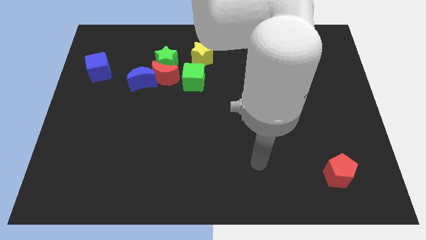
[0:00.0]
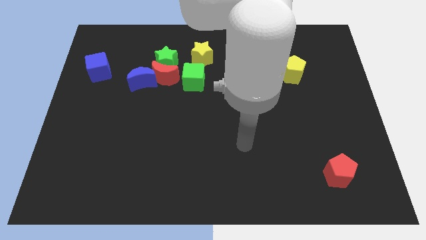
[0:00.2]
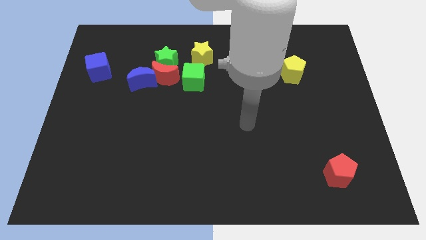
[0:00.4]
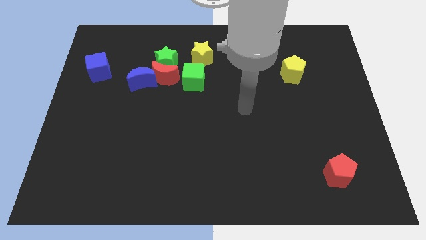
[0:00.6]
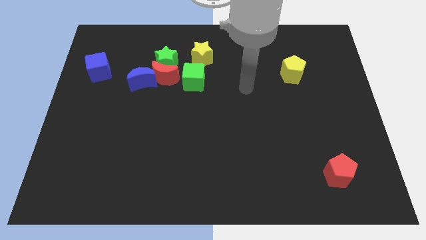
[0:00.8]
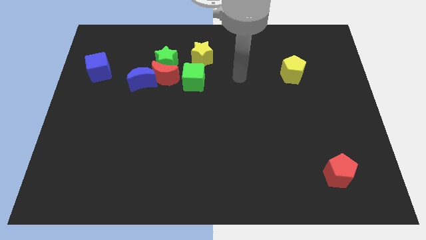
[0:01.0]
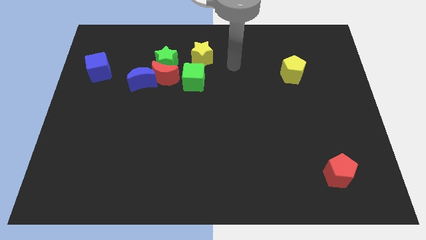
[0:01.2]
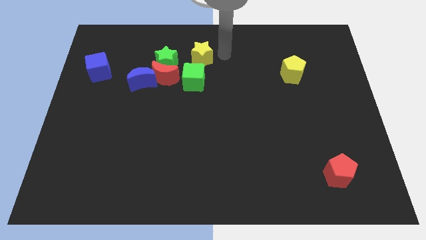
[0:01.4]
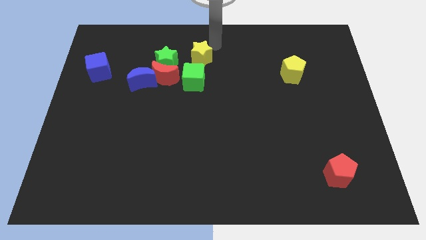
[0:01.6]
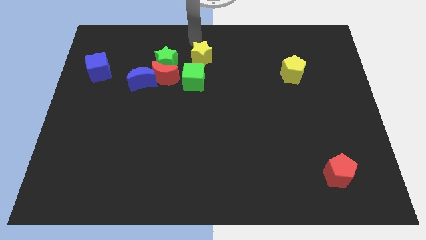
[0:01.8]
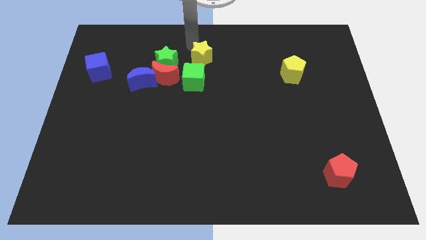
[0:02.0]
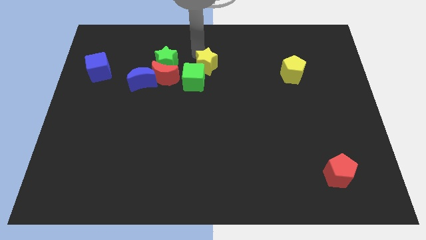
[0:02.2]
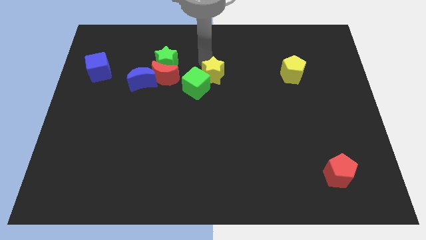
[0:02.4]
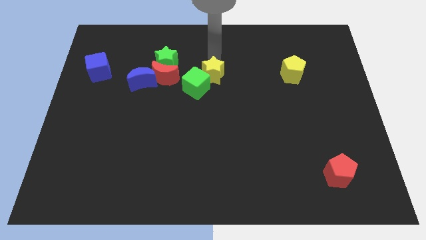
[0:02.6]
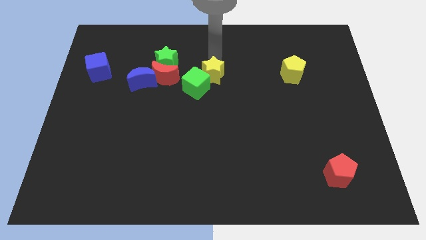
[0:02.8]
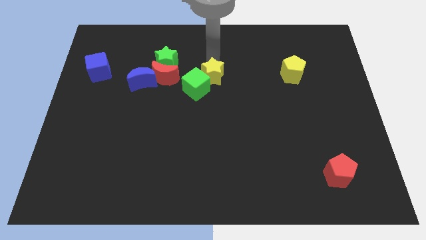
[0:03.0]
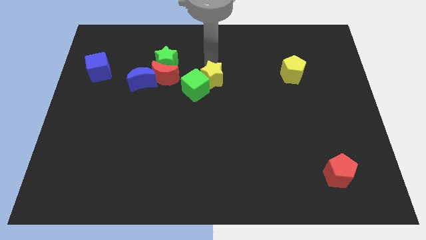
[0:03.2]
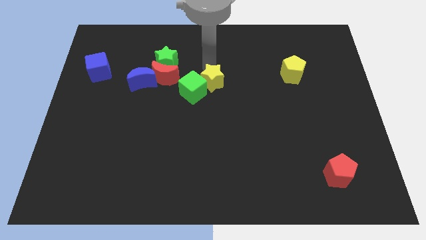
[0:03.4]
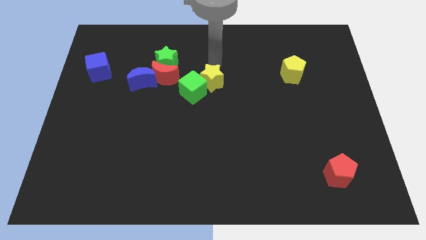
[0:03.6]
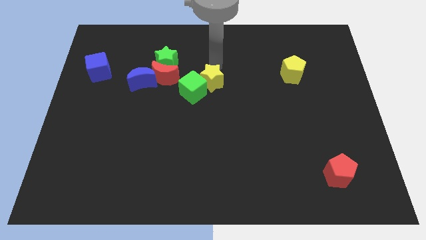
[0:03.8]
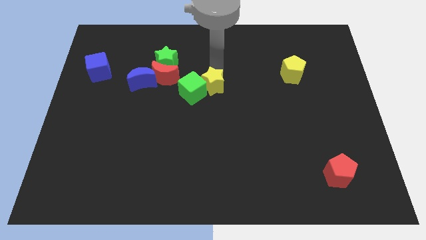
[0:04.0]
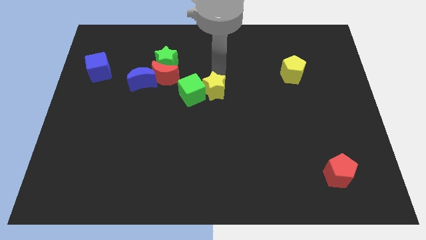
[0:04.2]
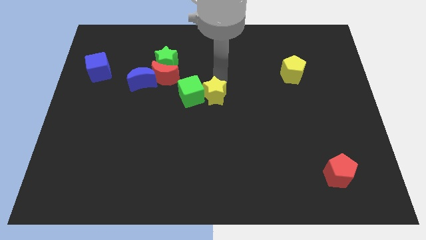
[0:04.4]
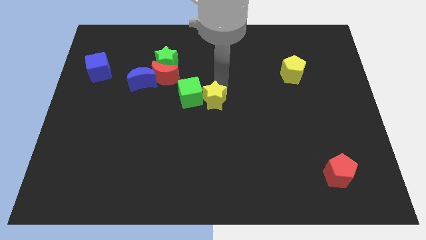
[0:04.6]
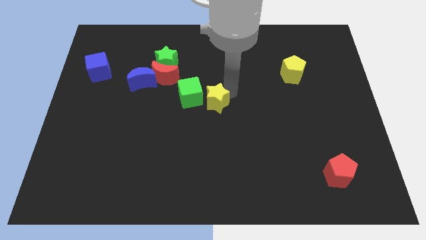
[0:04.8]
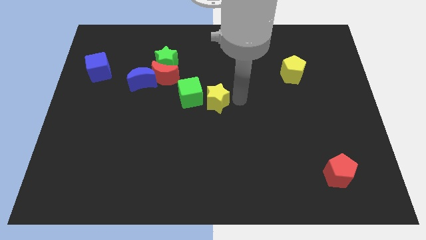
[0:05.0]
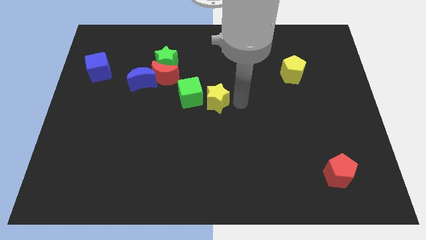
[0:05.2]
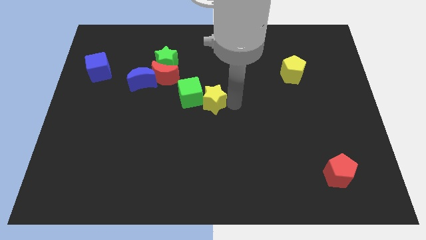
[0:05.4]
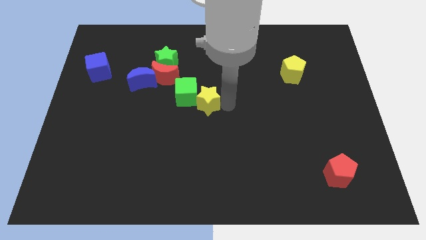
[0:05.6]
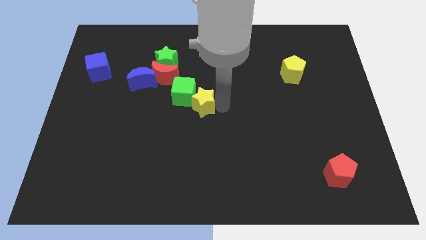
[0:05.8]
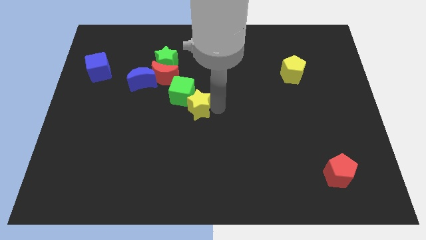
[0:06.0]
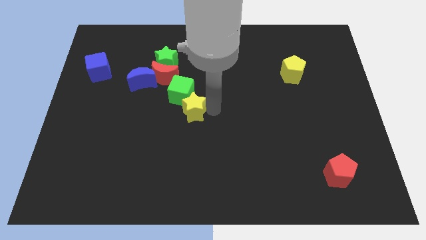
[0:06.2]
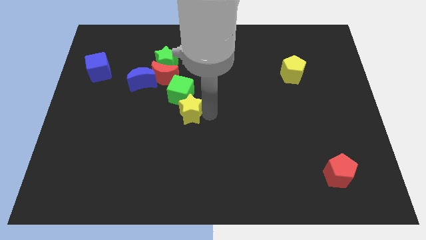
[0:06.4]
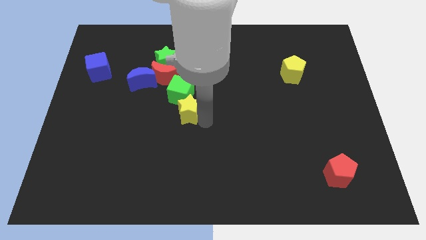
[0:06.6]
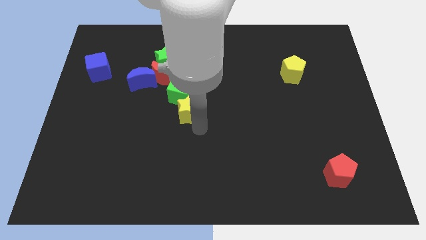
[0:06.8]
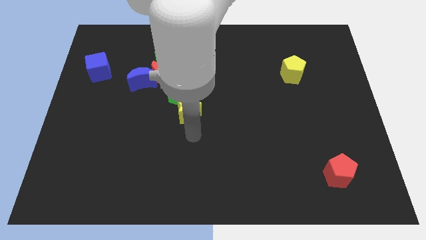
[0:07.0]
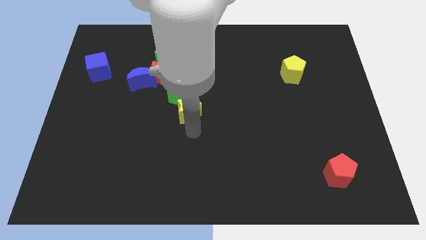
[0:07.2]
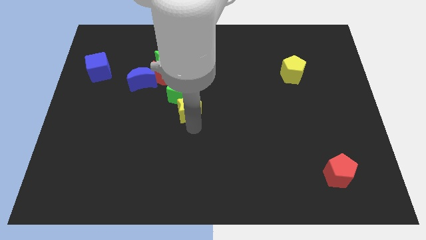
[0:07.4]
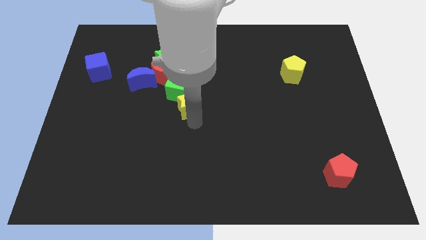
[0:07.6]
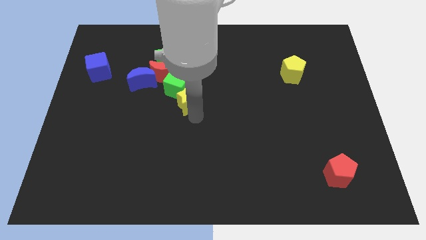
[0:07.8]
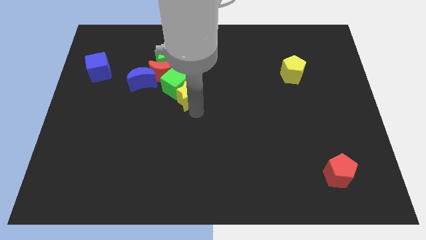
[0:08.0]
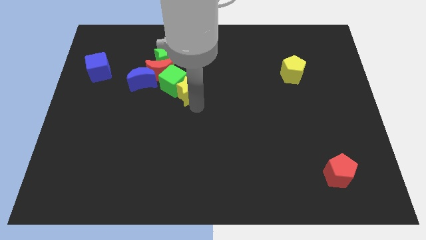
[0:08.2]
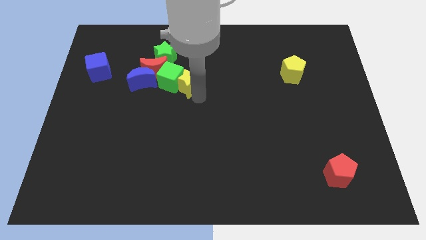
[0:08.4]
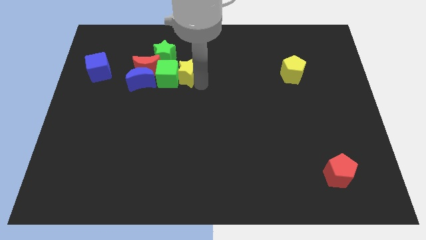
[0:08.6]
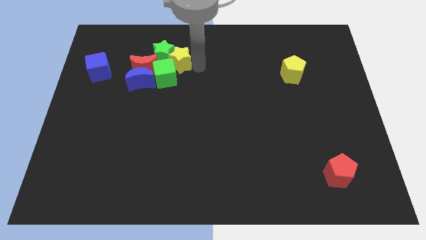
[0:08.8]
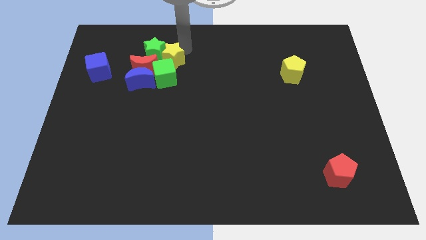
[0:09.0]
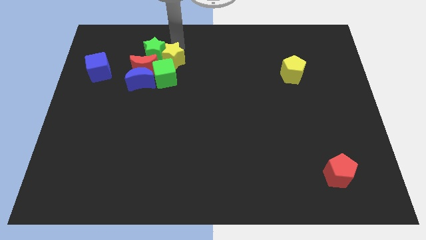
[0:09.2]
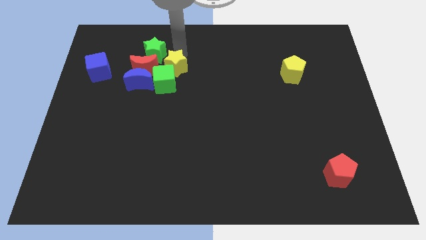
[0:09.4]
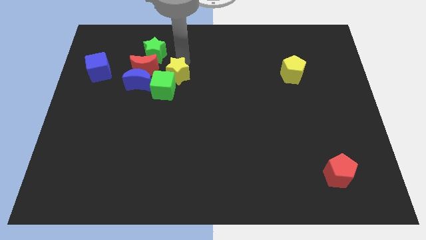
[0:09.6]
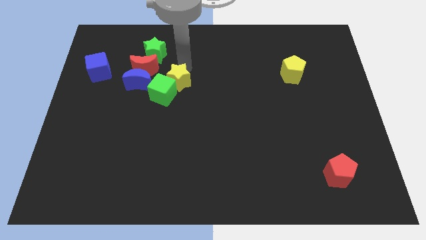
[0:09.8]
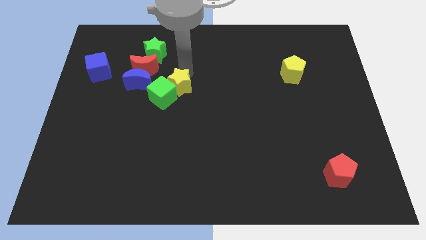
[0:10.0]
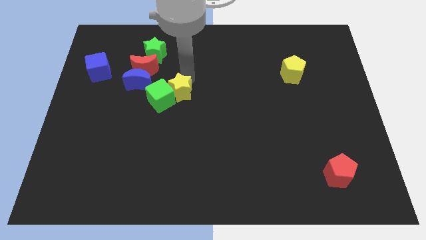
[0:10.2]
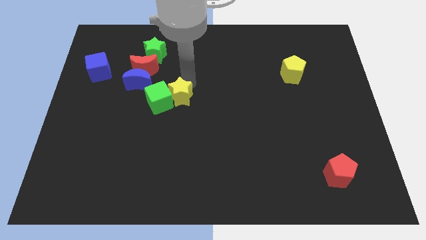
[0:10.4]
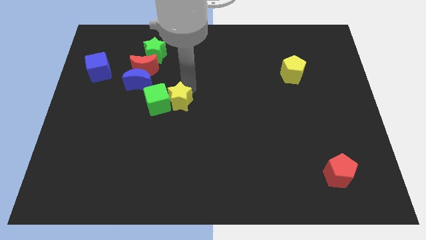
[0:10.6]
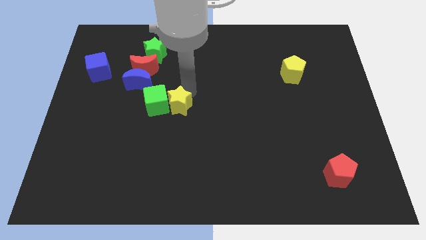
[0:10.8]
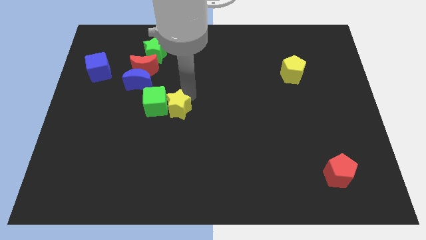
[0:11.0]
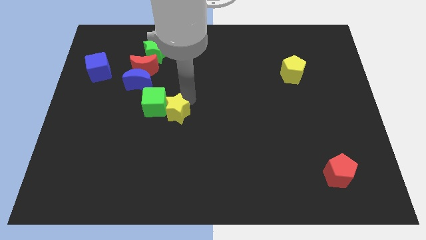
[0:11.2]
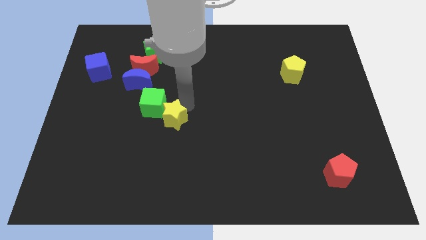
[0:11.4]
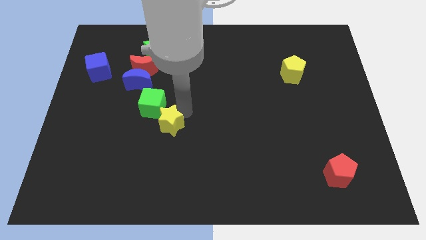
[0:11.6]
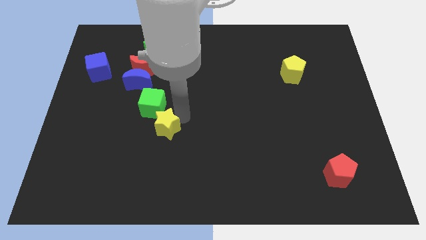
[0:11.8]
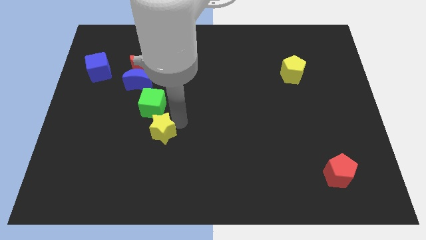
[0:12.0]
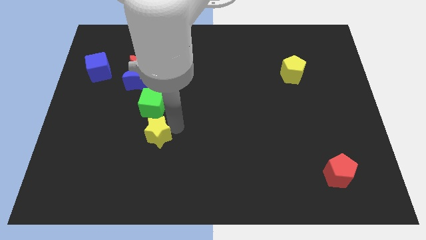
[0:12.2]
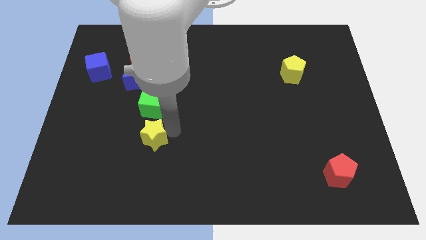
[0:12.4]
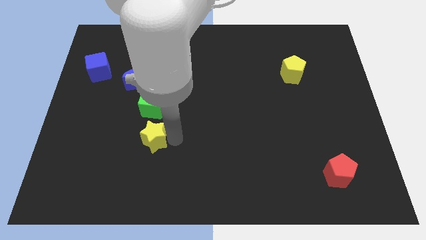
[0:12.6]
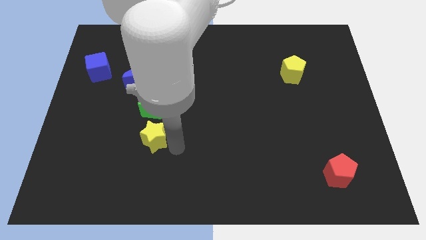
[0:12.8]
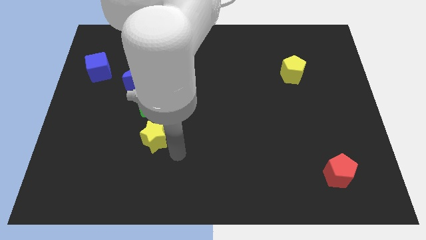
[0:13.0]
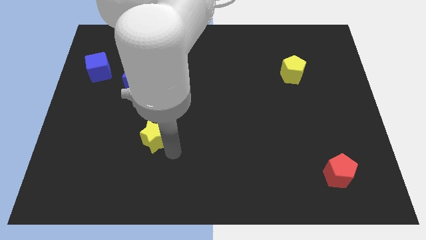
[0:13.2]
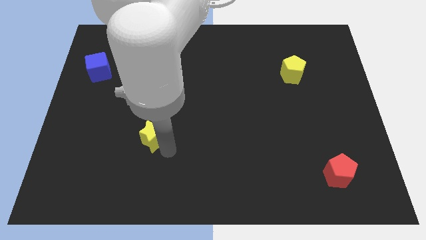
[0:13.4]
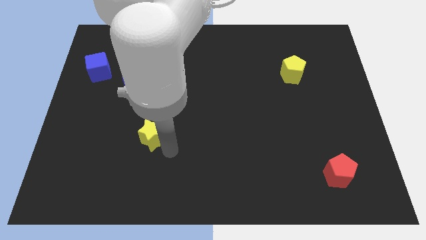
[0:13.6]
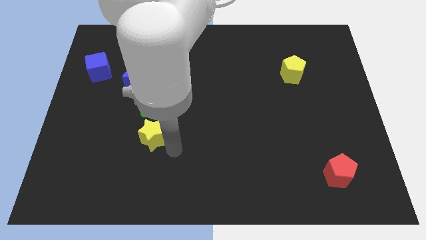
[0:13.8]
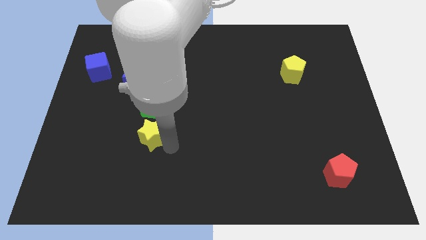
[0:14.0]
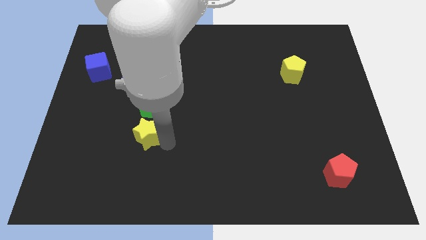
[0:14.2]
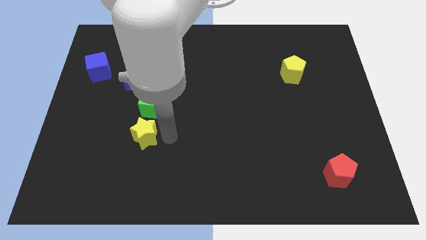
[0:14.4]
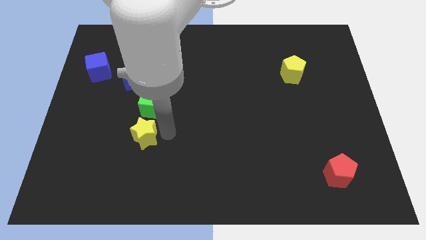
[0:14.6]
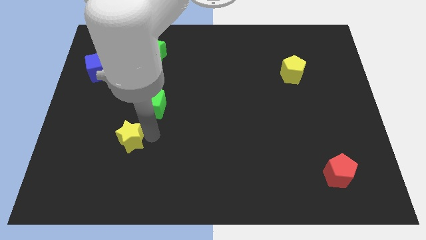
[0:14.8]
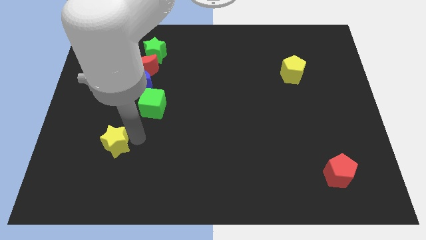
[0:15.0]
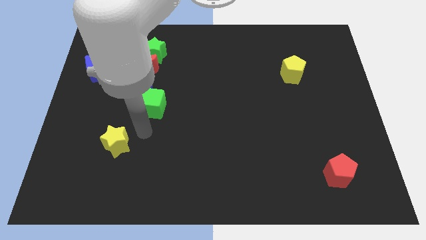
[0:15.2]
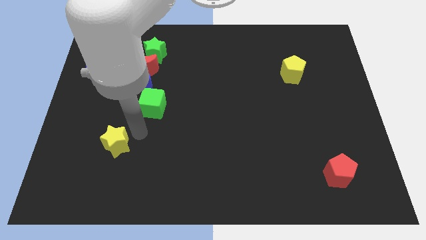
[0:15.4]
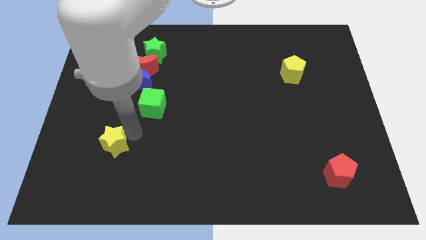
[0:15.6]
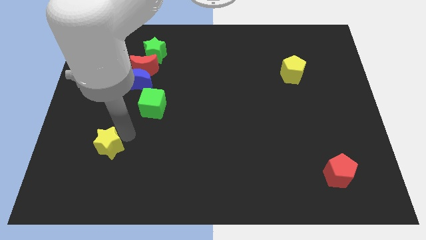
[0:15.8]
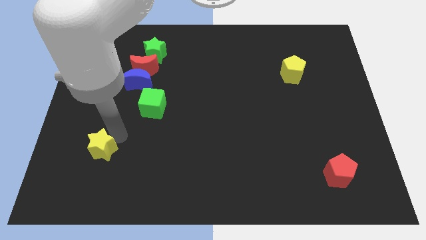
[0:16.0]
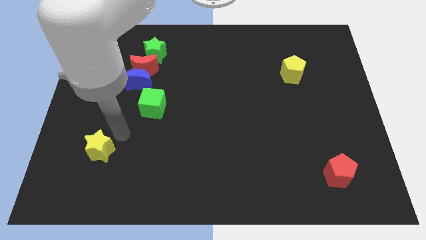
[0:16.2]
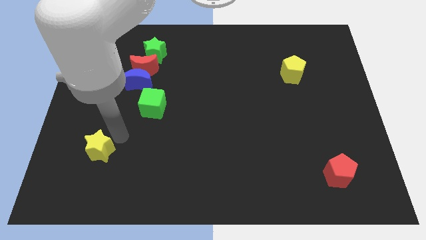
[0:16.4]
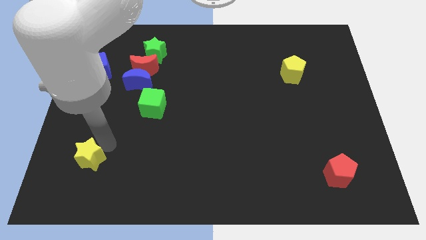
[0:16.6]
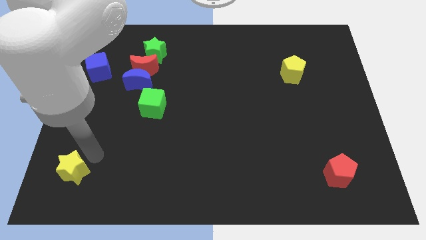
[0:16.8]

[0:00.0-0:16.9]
put the yellow star to the bottom left of the board
